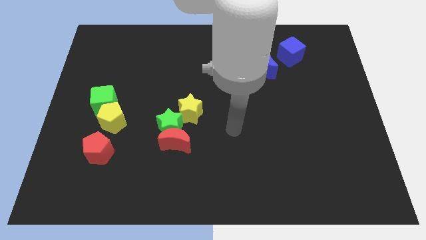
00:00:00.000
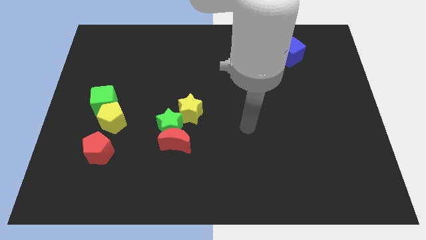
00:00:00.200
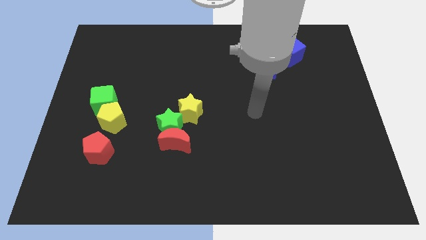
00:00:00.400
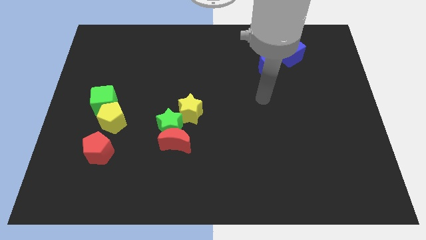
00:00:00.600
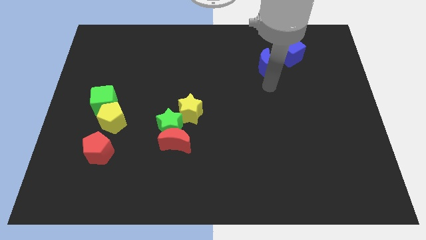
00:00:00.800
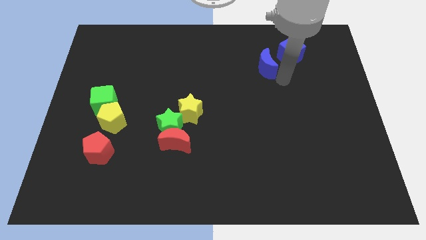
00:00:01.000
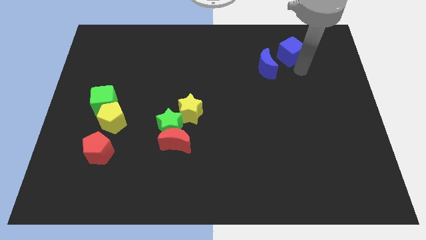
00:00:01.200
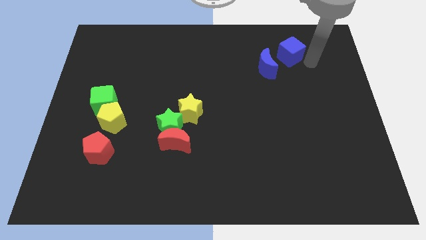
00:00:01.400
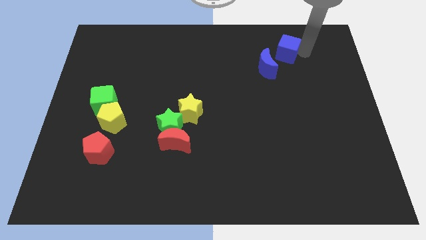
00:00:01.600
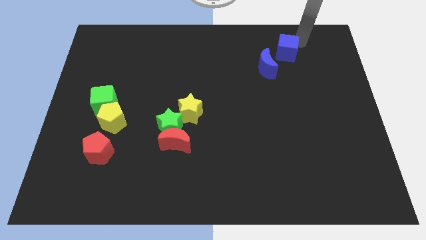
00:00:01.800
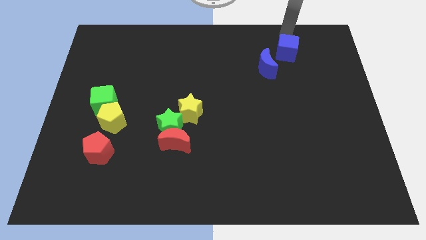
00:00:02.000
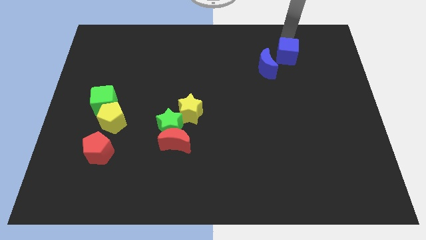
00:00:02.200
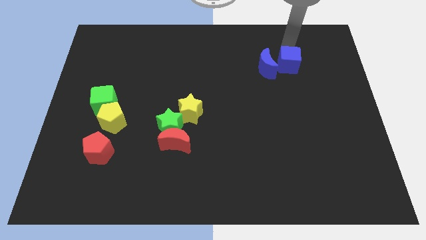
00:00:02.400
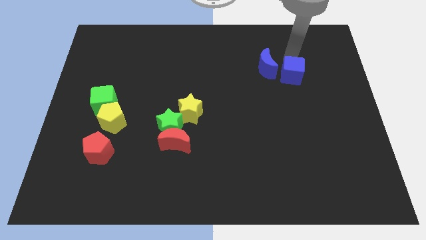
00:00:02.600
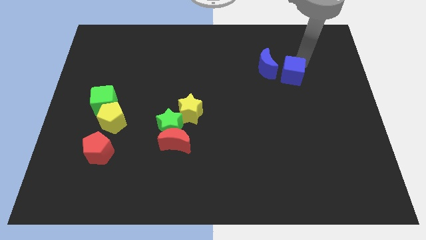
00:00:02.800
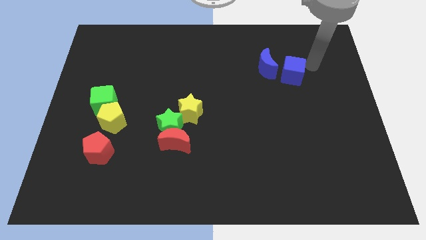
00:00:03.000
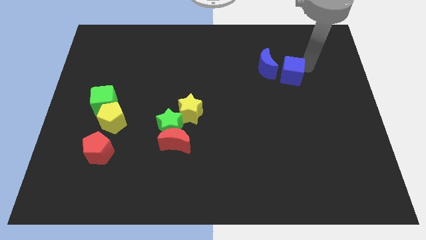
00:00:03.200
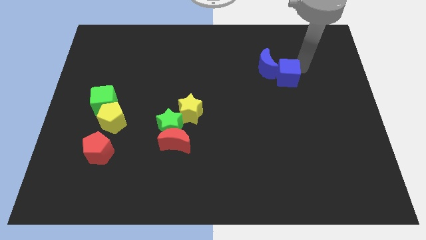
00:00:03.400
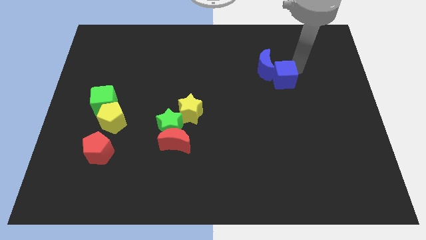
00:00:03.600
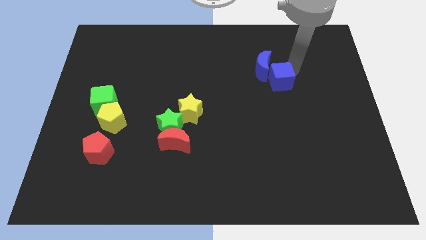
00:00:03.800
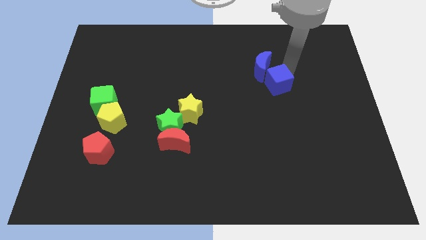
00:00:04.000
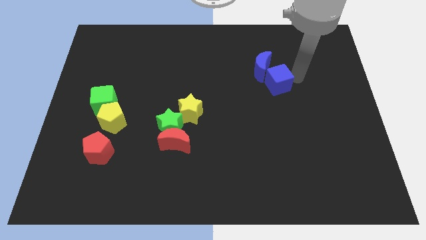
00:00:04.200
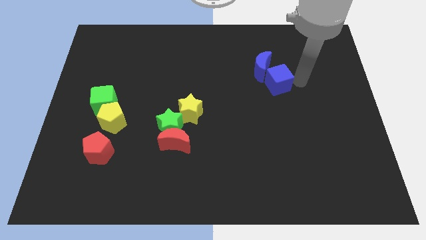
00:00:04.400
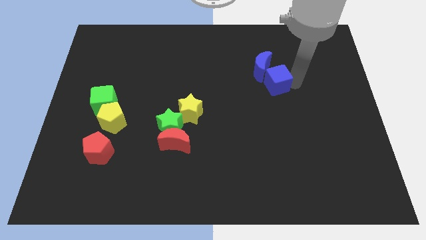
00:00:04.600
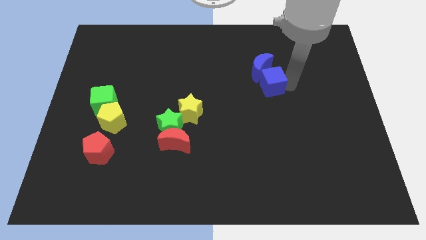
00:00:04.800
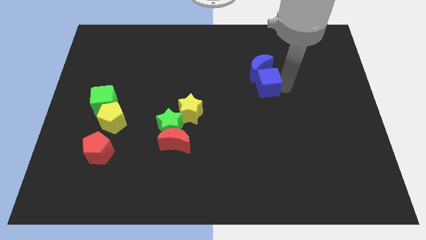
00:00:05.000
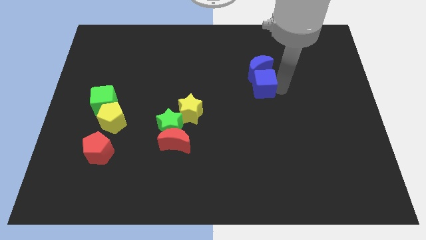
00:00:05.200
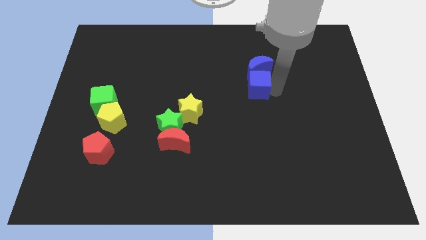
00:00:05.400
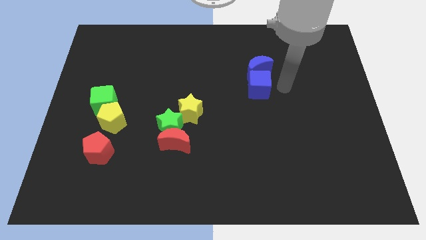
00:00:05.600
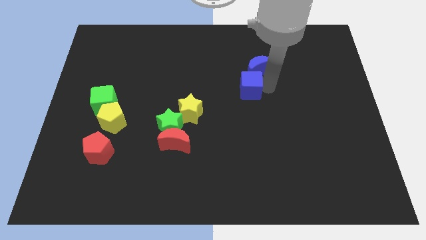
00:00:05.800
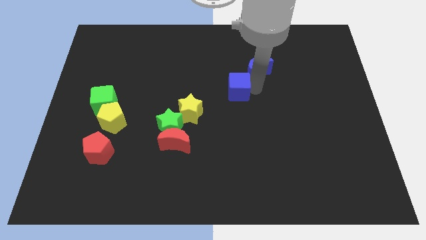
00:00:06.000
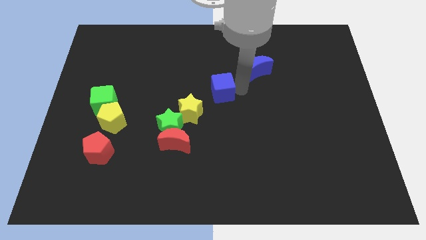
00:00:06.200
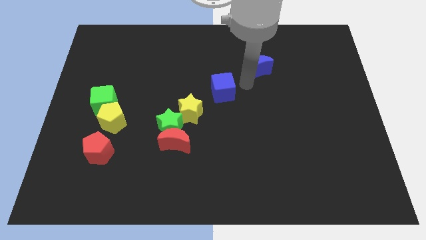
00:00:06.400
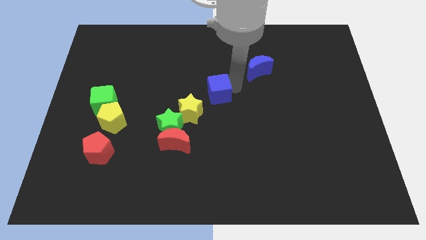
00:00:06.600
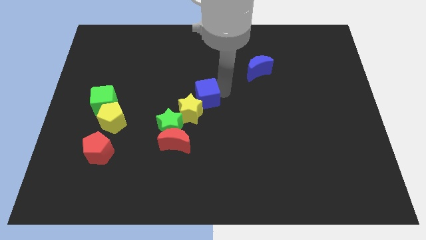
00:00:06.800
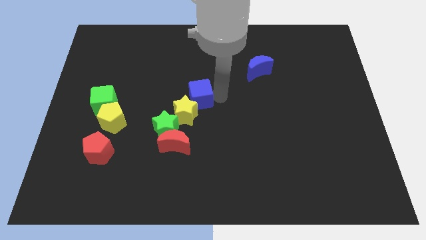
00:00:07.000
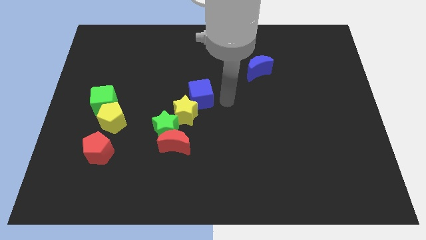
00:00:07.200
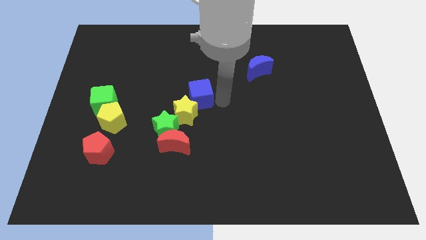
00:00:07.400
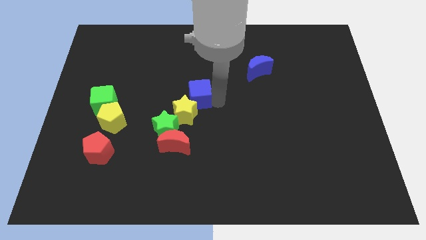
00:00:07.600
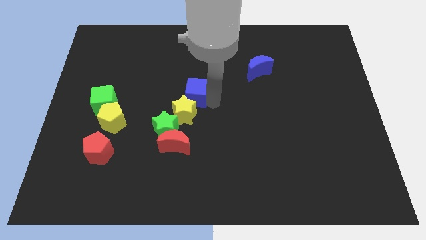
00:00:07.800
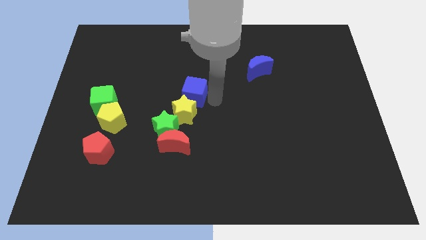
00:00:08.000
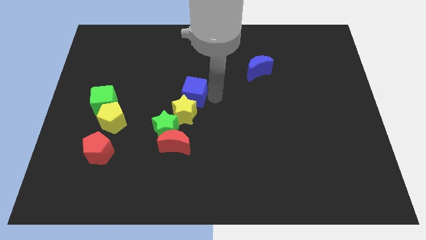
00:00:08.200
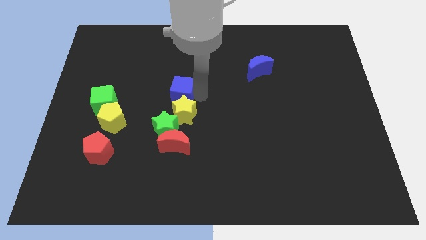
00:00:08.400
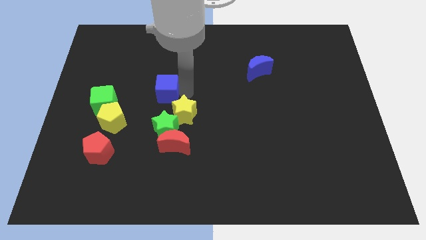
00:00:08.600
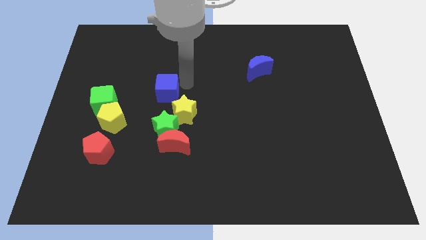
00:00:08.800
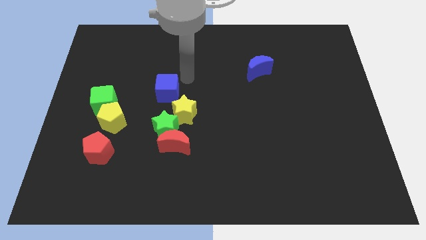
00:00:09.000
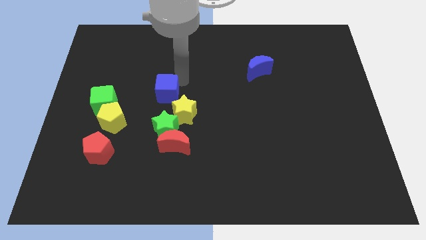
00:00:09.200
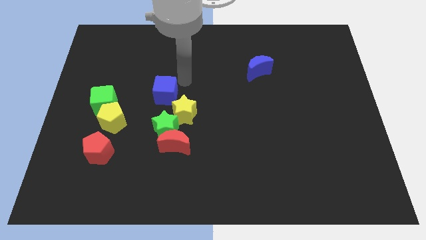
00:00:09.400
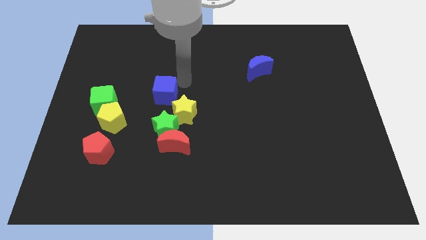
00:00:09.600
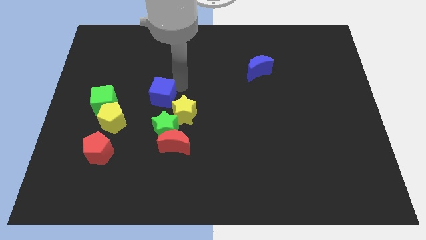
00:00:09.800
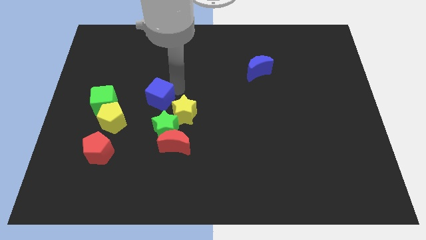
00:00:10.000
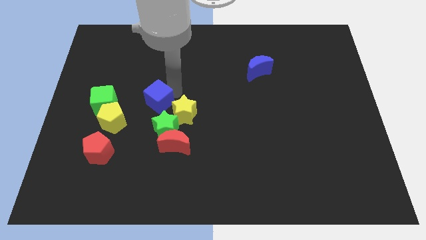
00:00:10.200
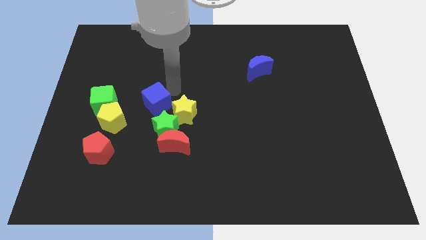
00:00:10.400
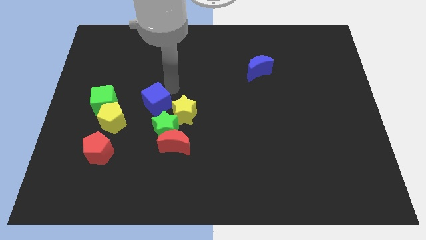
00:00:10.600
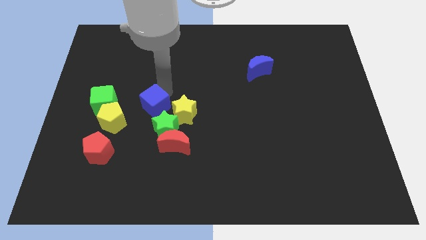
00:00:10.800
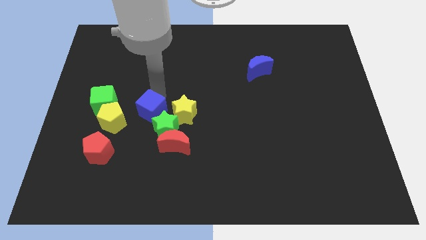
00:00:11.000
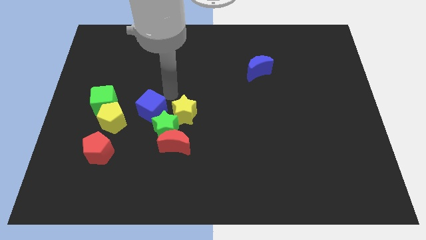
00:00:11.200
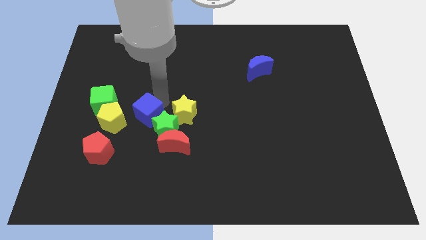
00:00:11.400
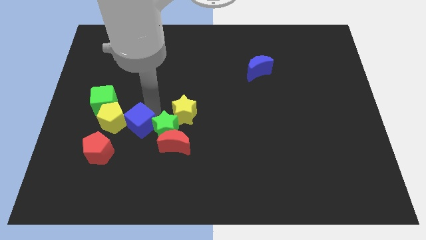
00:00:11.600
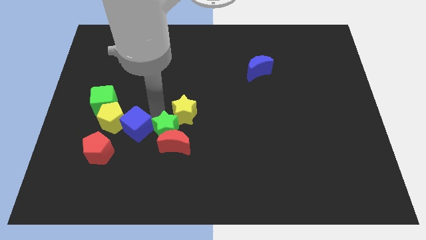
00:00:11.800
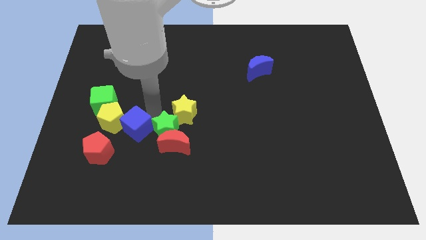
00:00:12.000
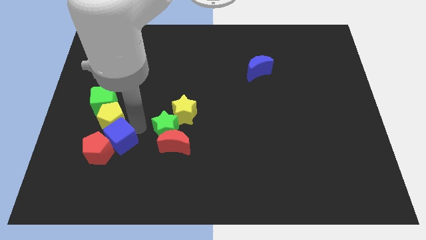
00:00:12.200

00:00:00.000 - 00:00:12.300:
push the blue cube towards the red pentagon

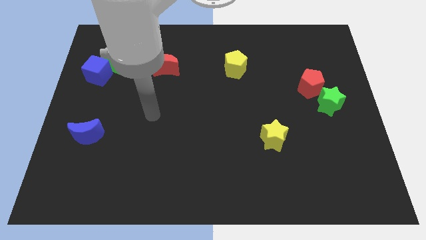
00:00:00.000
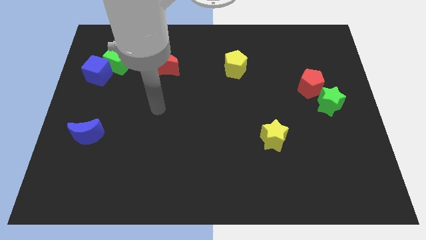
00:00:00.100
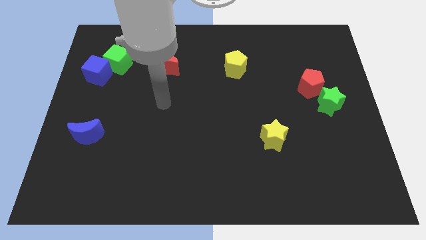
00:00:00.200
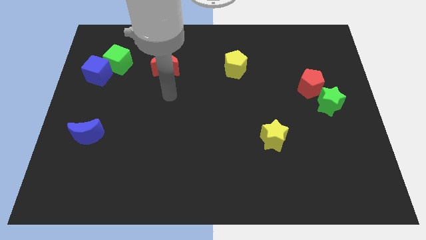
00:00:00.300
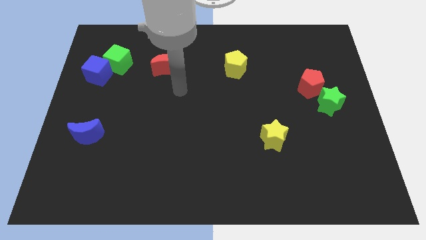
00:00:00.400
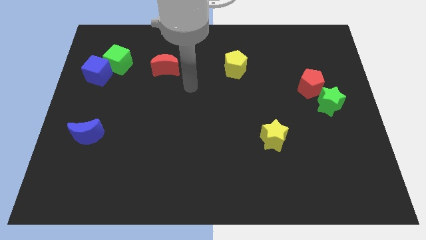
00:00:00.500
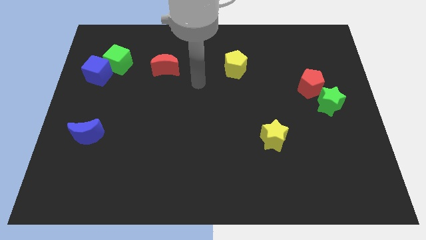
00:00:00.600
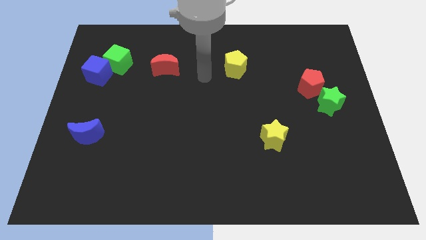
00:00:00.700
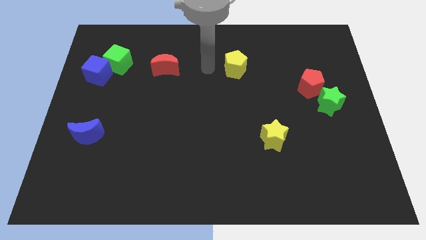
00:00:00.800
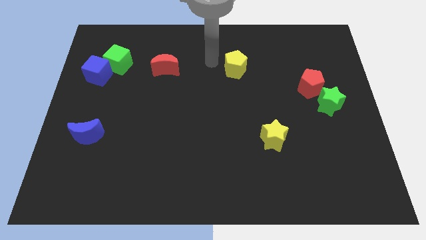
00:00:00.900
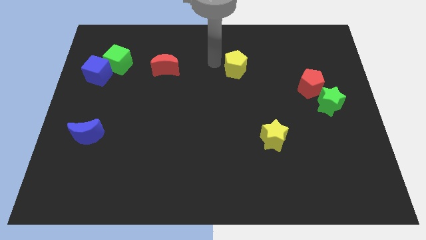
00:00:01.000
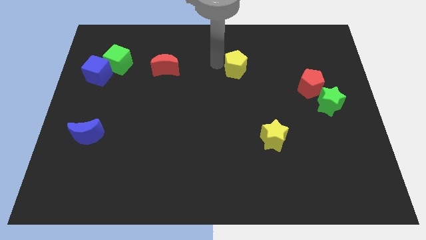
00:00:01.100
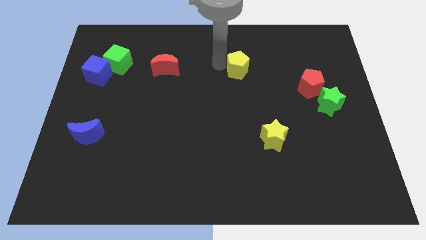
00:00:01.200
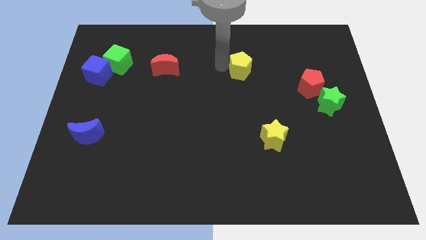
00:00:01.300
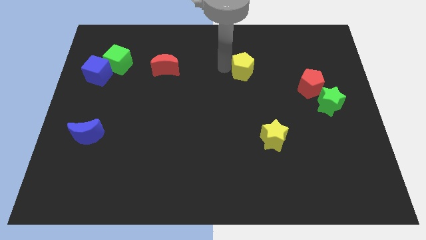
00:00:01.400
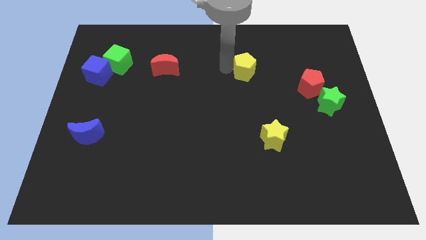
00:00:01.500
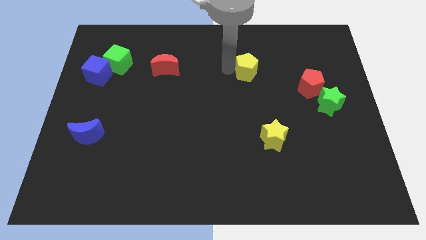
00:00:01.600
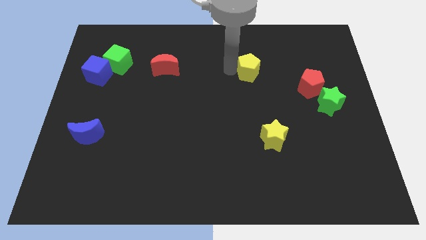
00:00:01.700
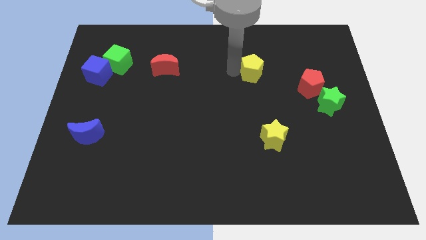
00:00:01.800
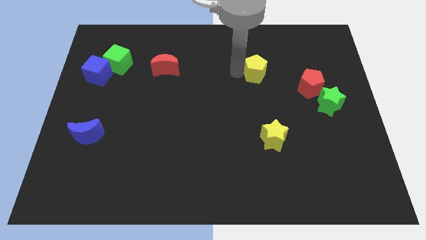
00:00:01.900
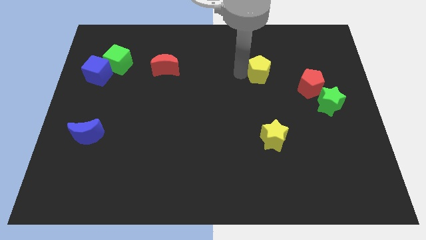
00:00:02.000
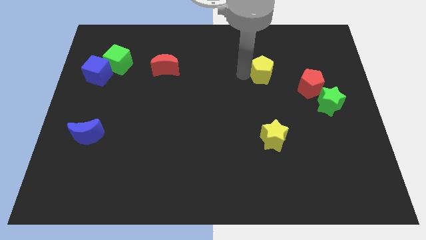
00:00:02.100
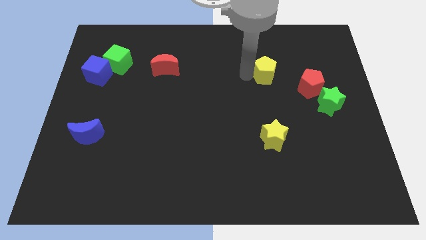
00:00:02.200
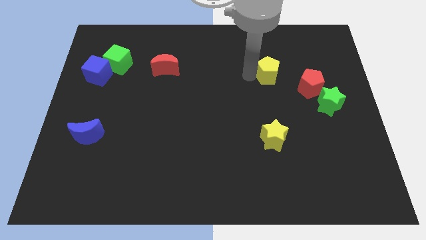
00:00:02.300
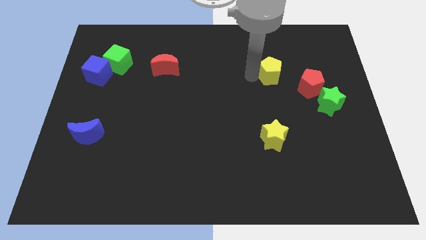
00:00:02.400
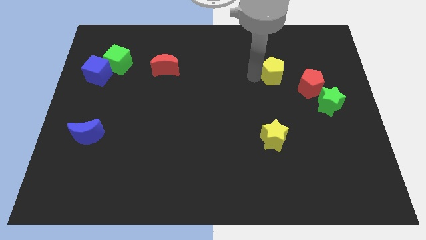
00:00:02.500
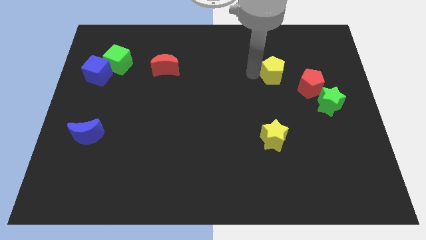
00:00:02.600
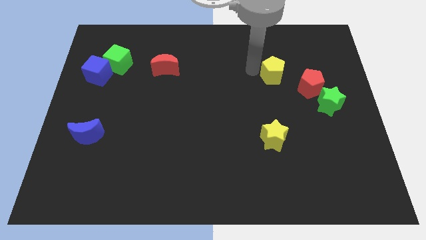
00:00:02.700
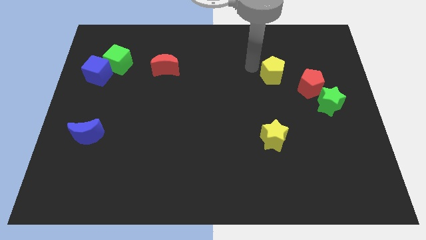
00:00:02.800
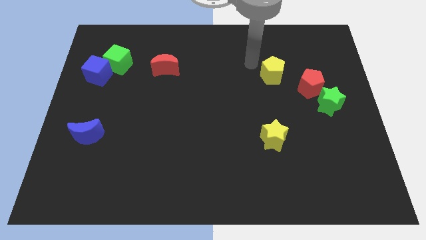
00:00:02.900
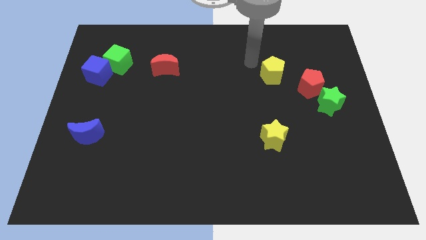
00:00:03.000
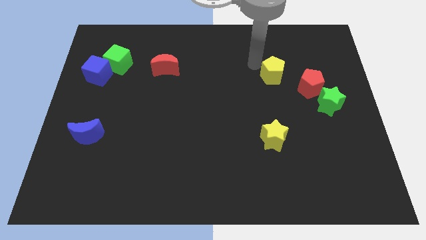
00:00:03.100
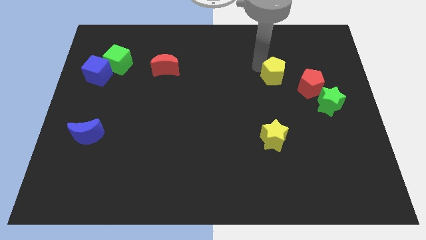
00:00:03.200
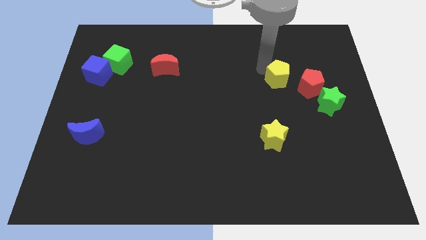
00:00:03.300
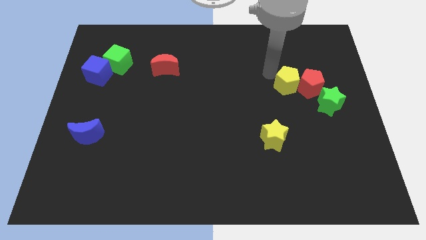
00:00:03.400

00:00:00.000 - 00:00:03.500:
put the yellow pentagon towards the red pentagon
